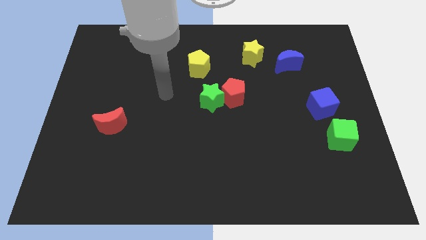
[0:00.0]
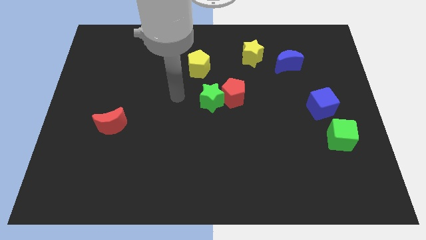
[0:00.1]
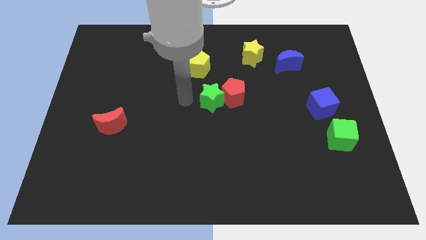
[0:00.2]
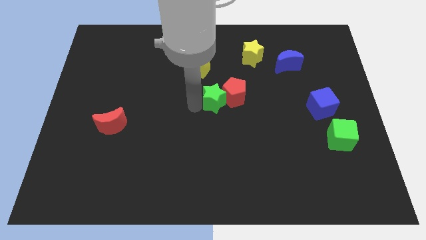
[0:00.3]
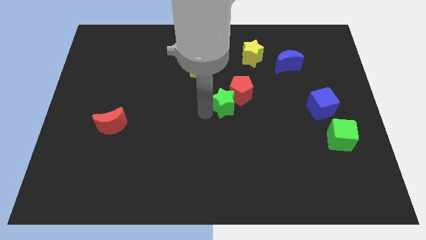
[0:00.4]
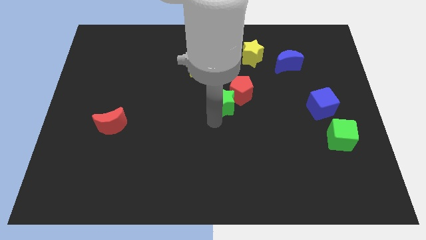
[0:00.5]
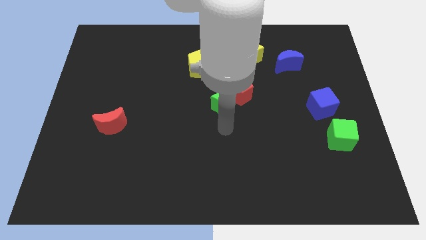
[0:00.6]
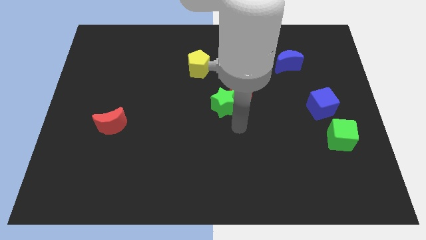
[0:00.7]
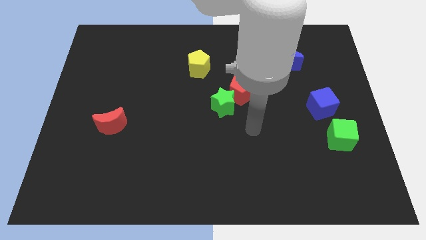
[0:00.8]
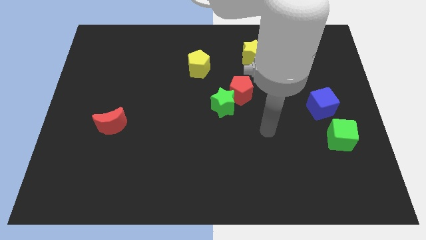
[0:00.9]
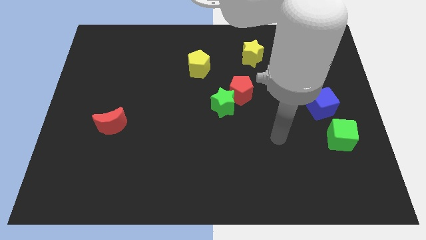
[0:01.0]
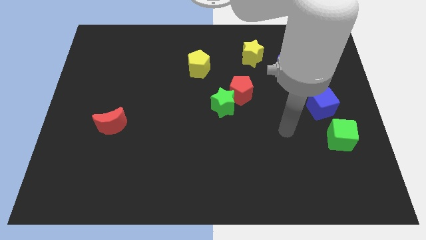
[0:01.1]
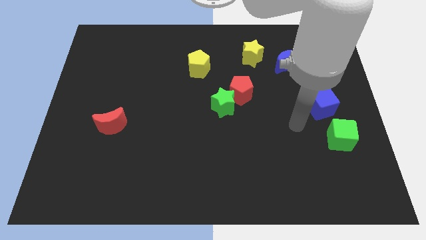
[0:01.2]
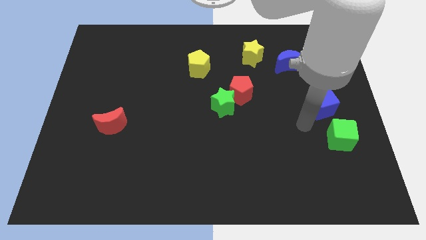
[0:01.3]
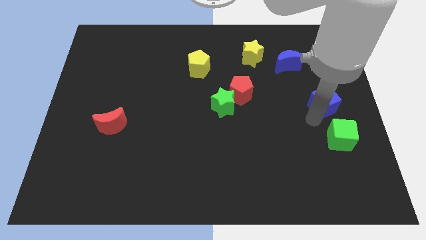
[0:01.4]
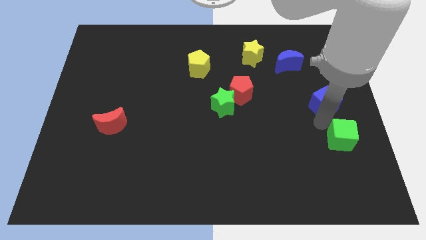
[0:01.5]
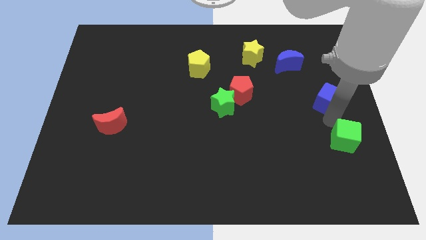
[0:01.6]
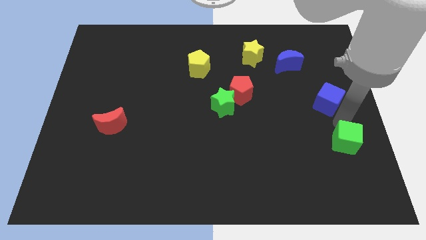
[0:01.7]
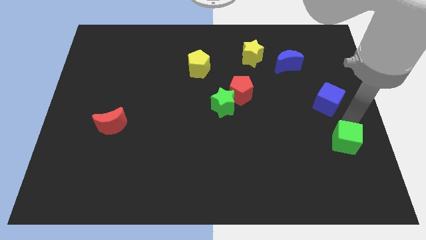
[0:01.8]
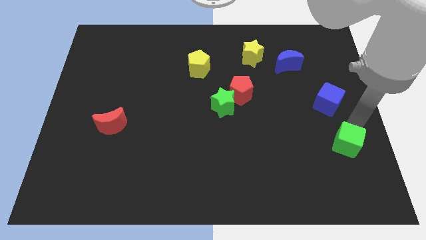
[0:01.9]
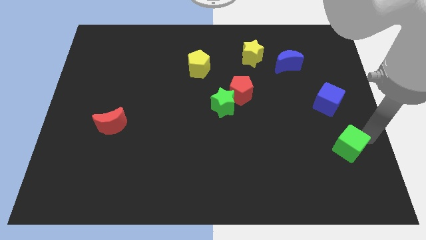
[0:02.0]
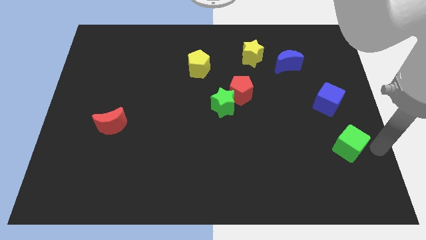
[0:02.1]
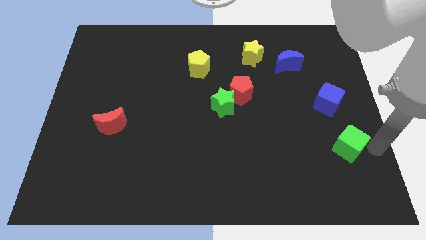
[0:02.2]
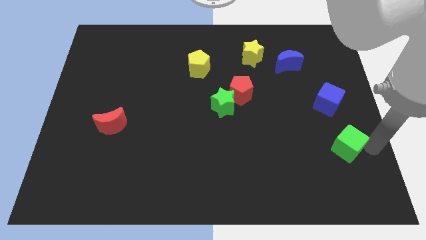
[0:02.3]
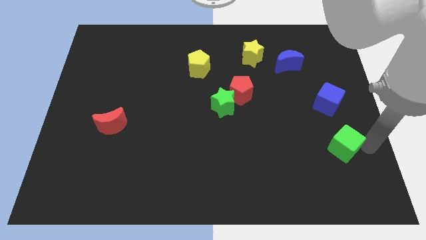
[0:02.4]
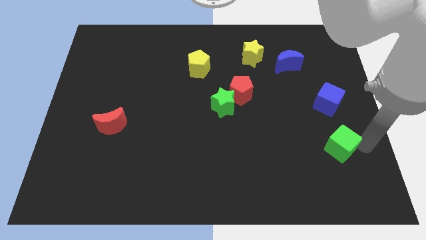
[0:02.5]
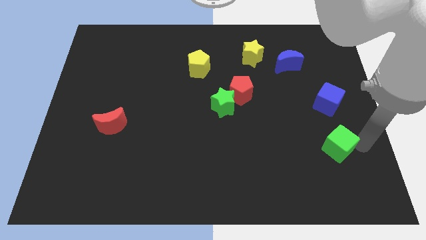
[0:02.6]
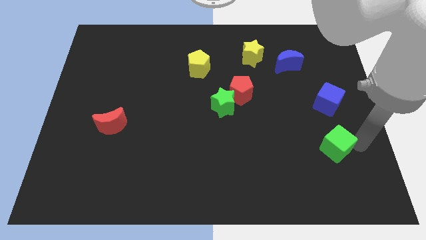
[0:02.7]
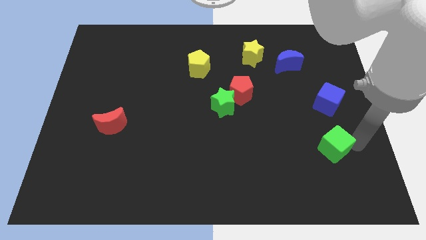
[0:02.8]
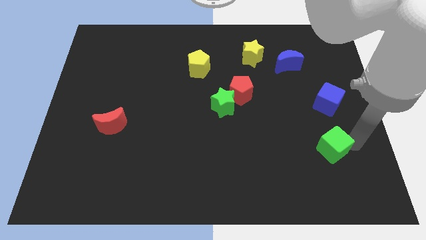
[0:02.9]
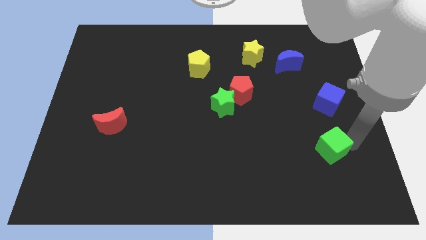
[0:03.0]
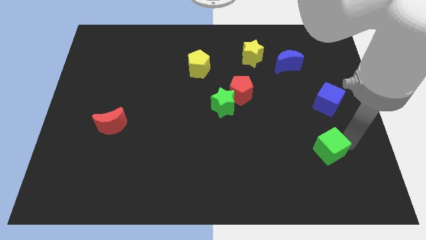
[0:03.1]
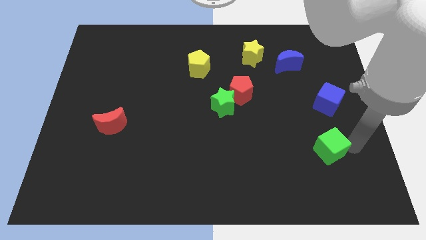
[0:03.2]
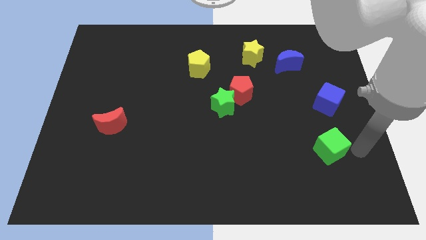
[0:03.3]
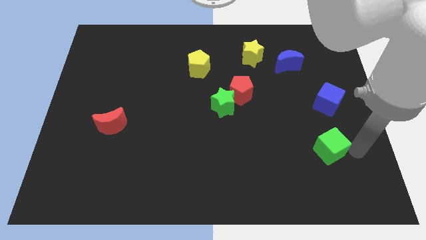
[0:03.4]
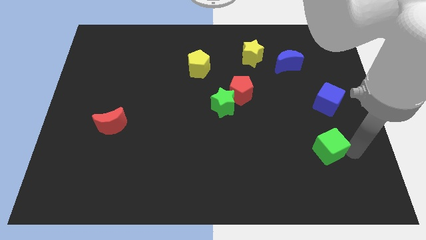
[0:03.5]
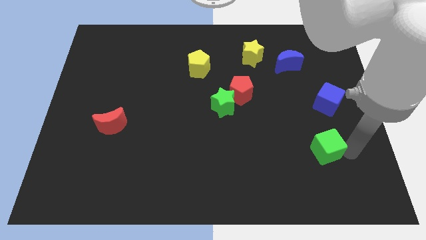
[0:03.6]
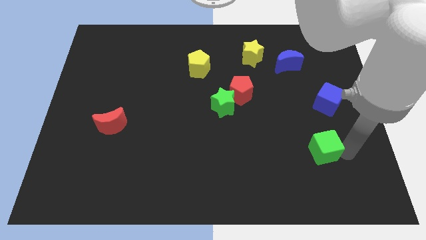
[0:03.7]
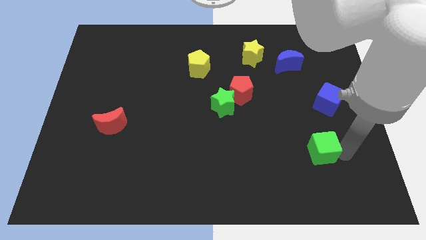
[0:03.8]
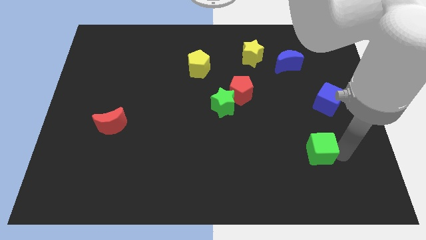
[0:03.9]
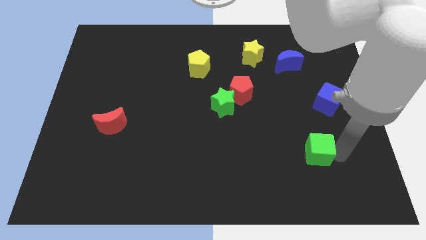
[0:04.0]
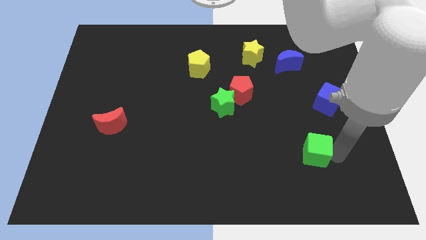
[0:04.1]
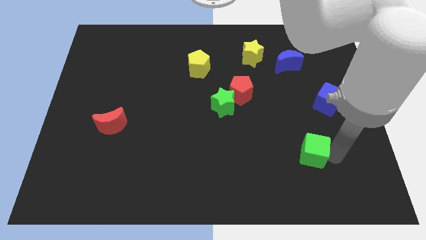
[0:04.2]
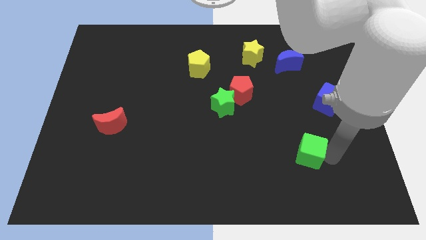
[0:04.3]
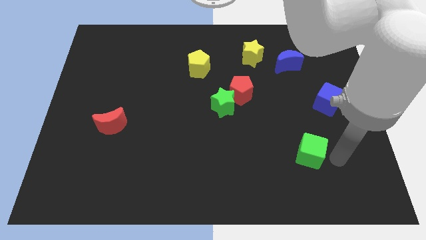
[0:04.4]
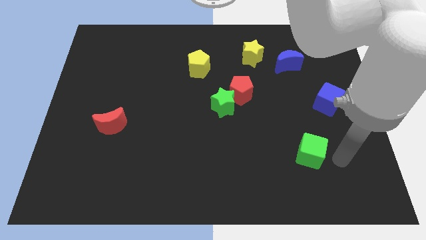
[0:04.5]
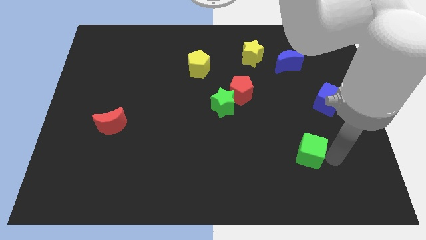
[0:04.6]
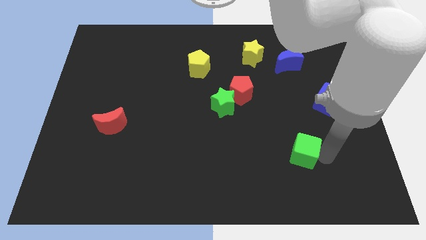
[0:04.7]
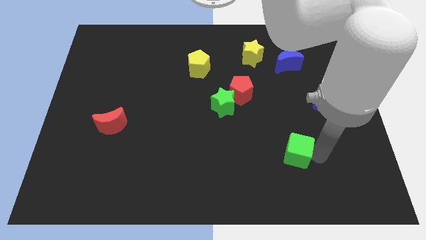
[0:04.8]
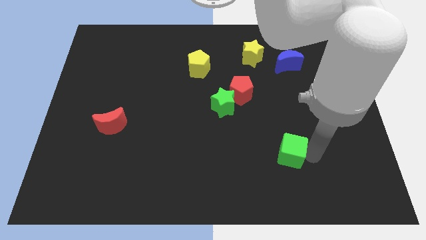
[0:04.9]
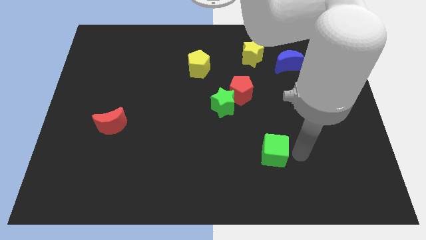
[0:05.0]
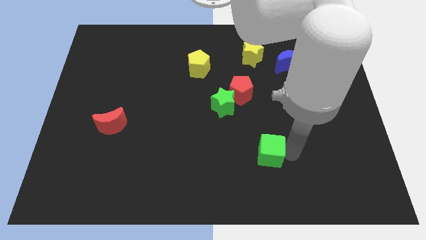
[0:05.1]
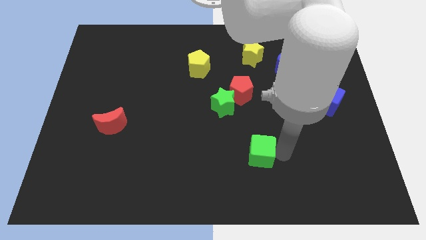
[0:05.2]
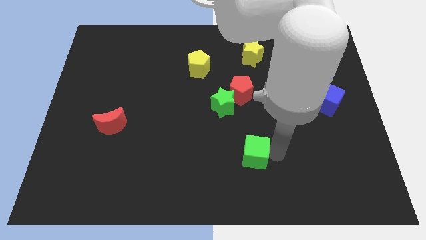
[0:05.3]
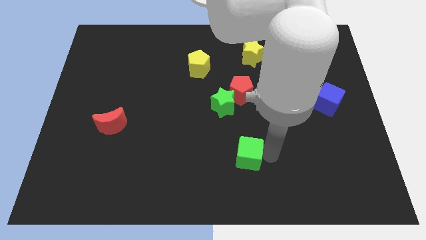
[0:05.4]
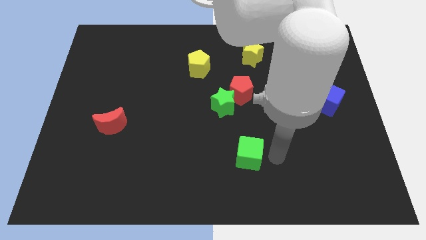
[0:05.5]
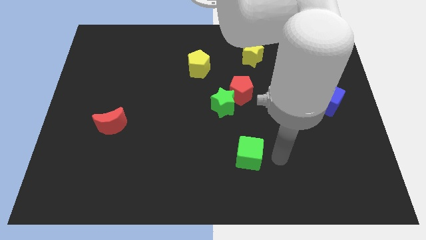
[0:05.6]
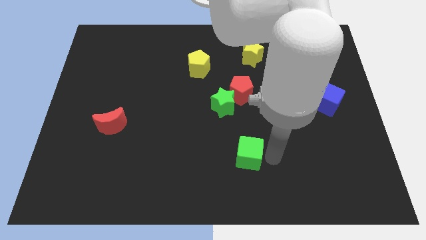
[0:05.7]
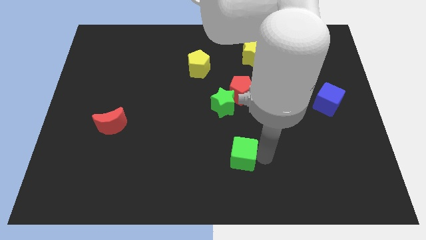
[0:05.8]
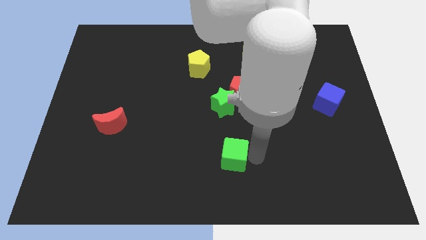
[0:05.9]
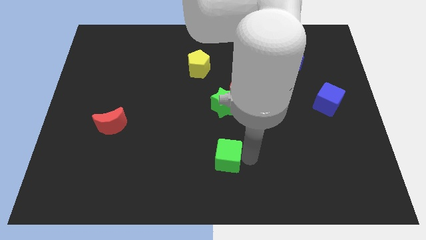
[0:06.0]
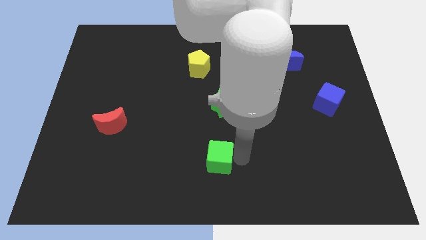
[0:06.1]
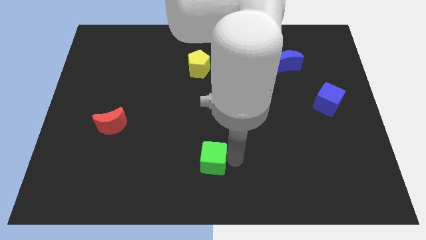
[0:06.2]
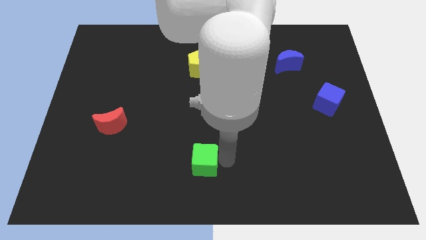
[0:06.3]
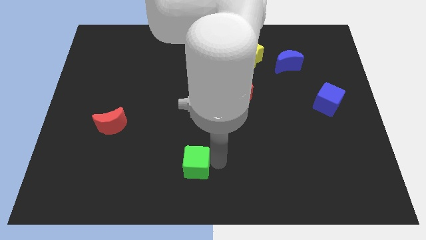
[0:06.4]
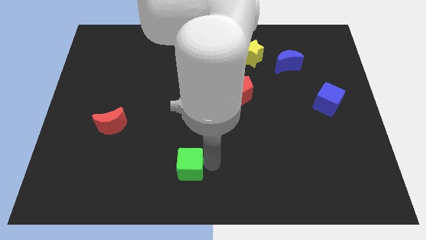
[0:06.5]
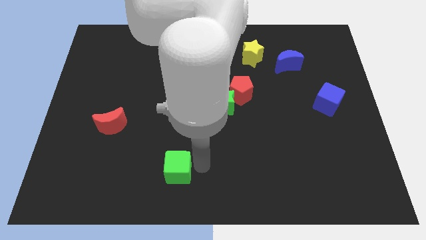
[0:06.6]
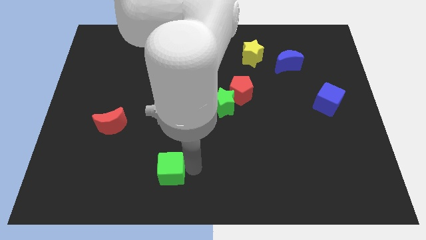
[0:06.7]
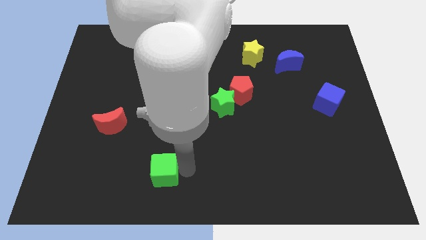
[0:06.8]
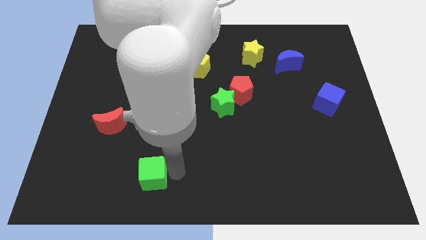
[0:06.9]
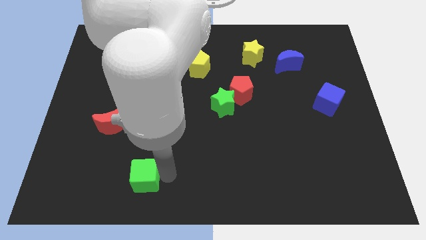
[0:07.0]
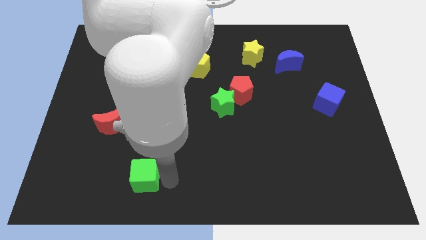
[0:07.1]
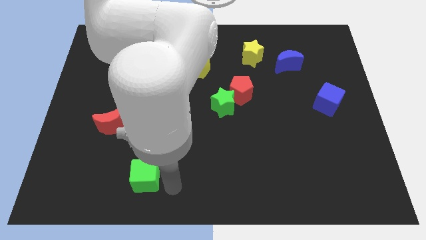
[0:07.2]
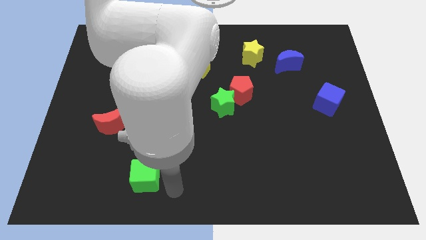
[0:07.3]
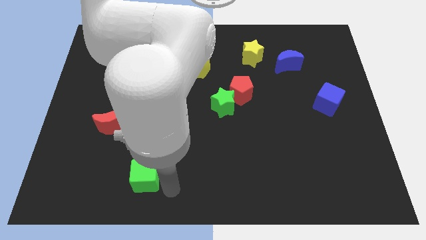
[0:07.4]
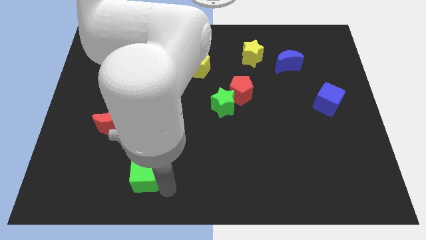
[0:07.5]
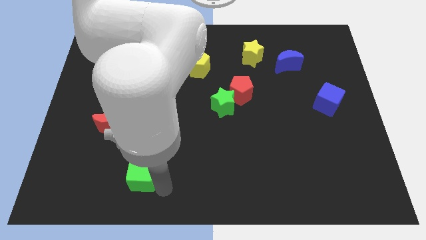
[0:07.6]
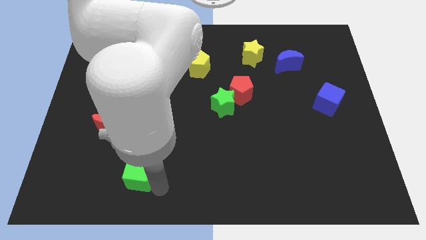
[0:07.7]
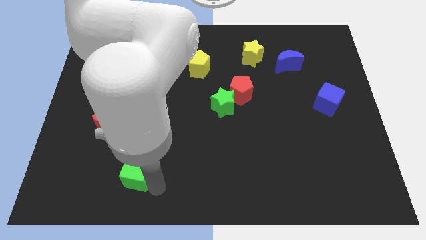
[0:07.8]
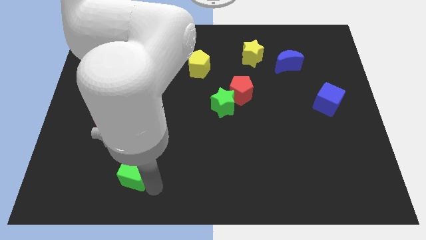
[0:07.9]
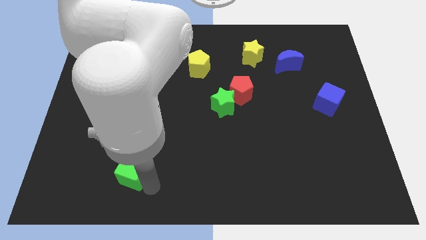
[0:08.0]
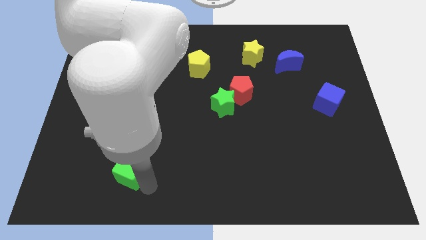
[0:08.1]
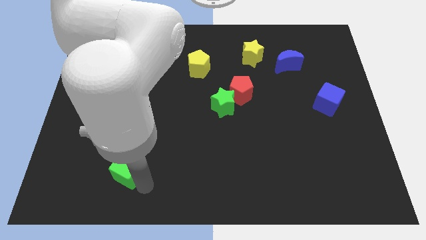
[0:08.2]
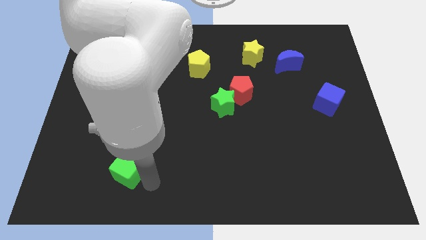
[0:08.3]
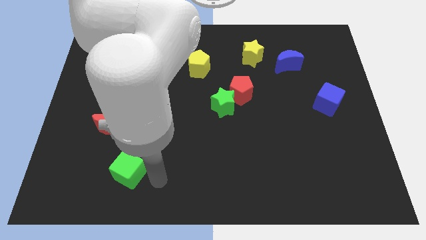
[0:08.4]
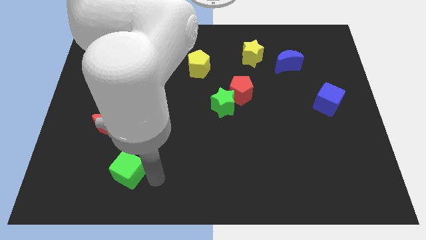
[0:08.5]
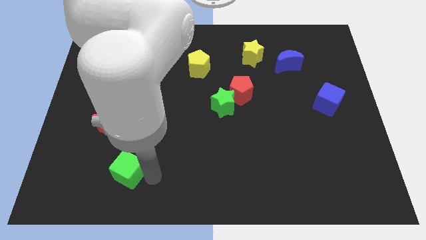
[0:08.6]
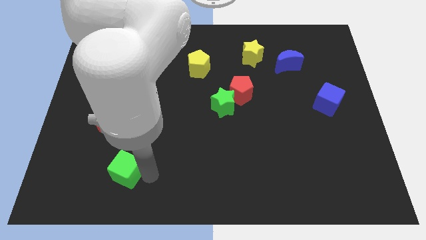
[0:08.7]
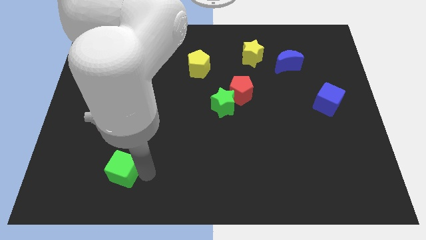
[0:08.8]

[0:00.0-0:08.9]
slide the green cube to the bottom of the red moon
